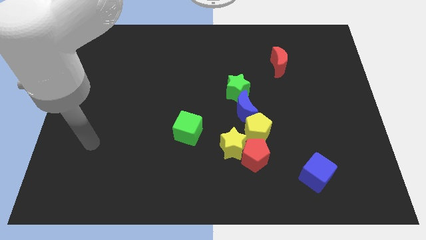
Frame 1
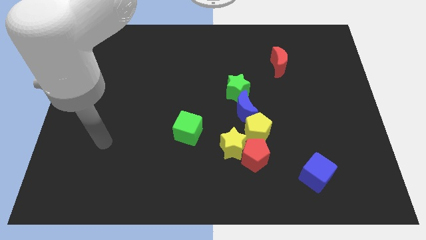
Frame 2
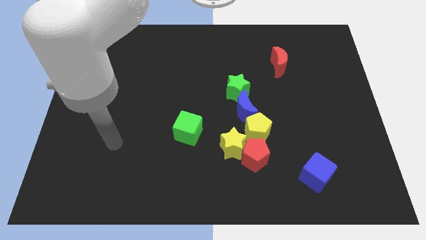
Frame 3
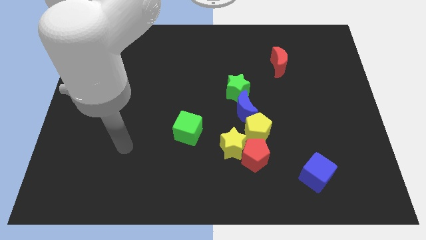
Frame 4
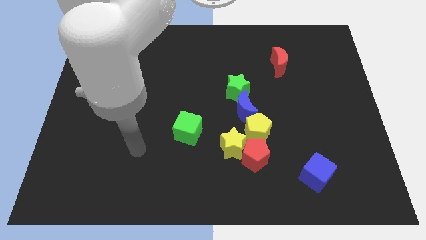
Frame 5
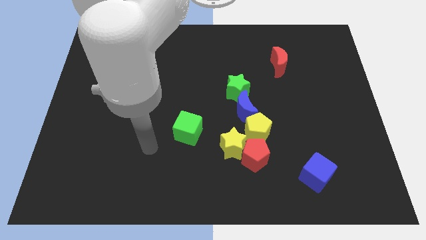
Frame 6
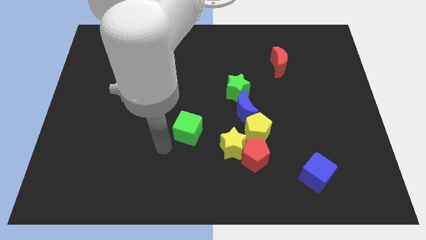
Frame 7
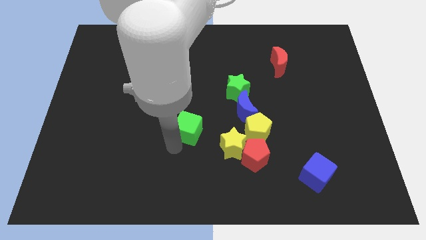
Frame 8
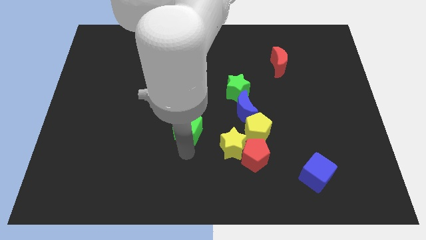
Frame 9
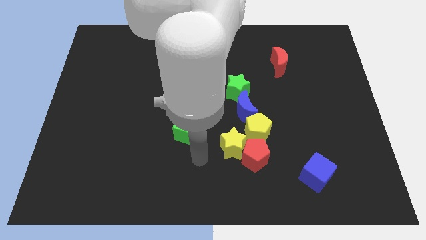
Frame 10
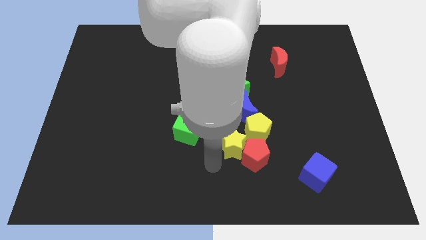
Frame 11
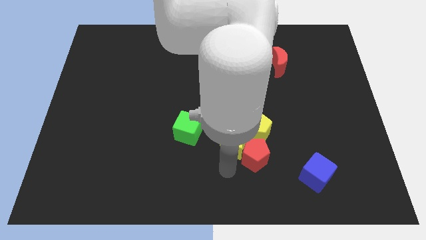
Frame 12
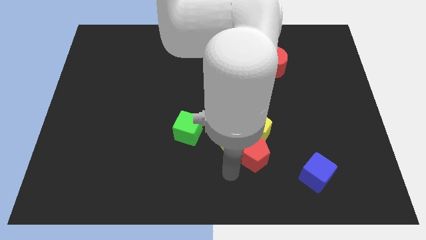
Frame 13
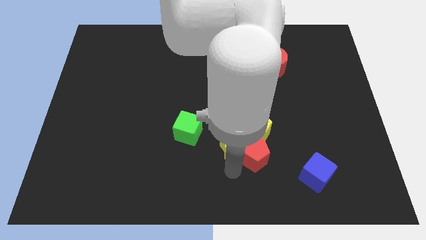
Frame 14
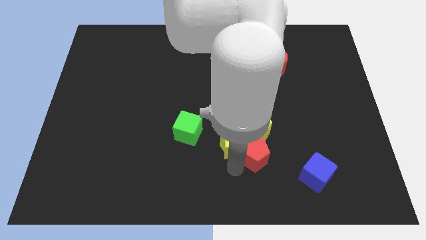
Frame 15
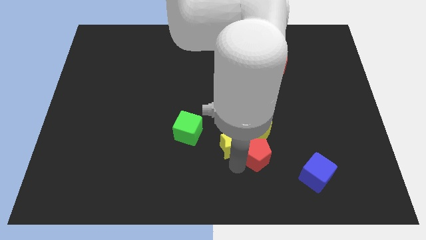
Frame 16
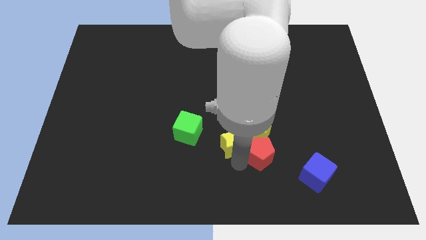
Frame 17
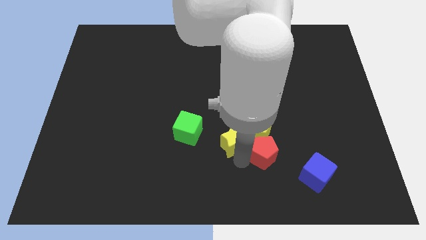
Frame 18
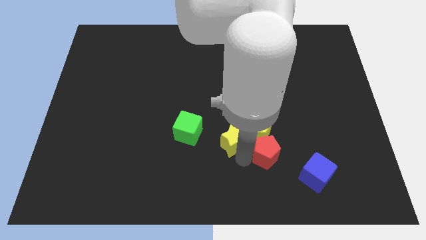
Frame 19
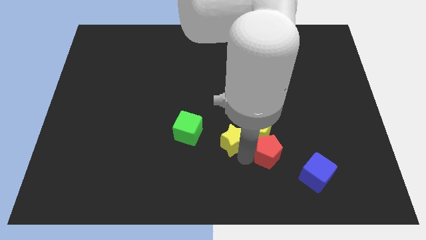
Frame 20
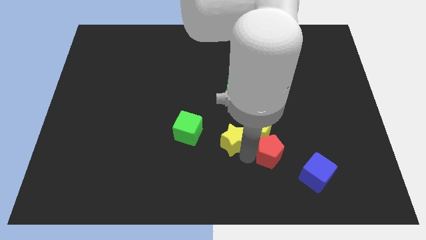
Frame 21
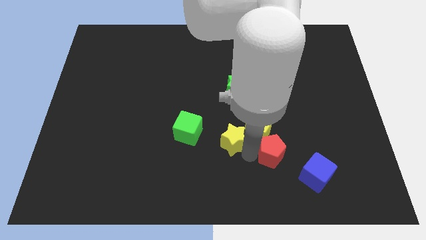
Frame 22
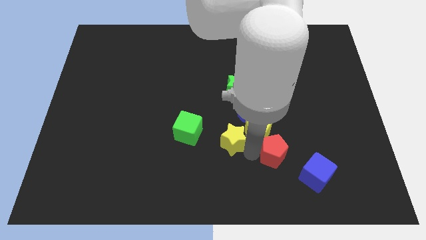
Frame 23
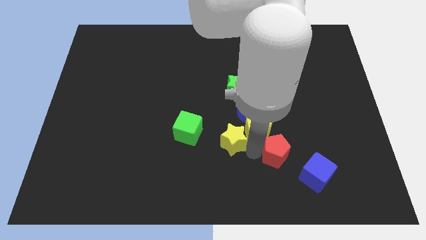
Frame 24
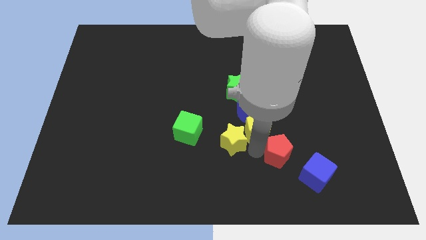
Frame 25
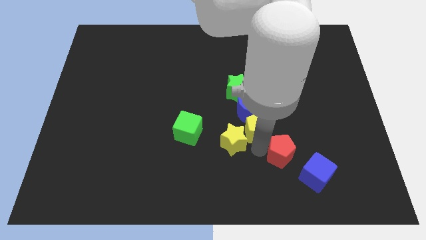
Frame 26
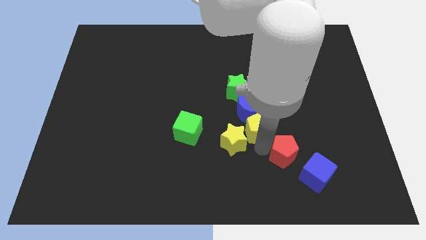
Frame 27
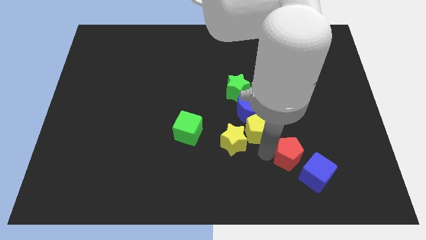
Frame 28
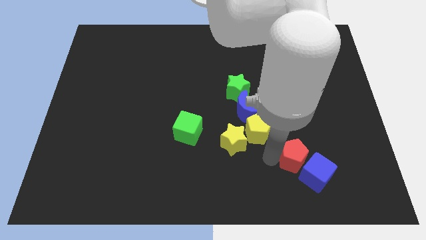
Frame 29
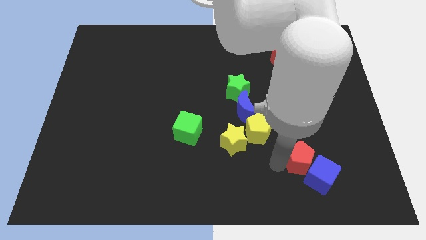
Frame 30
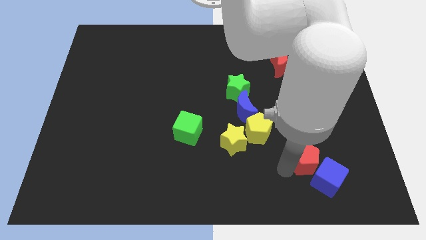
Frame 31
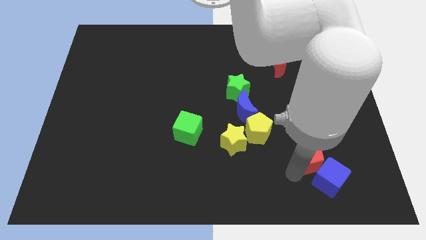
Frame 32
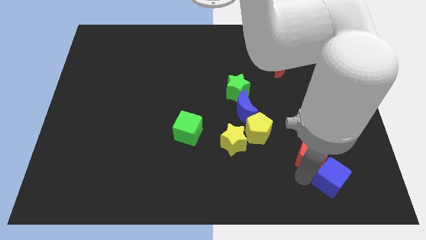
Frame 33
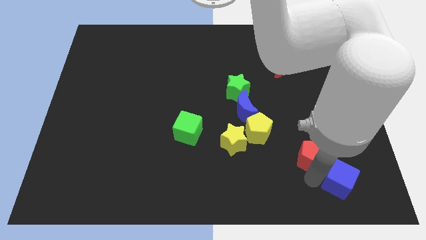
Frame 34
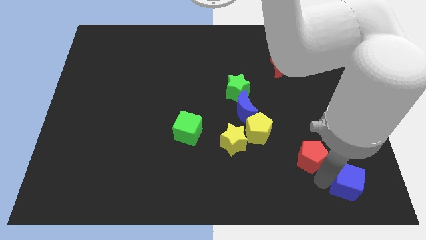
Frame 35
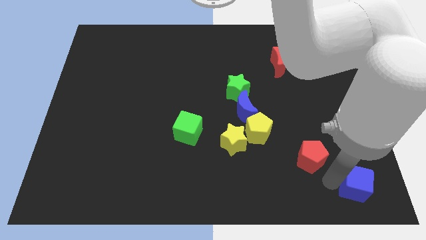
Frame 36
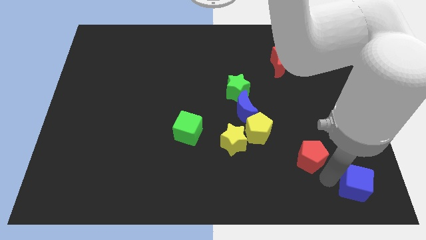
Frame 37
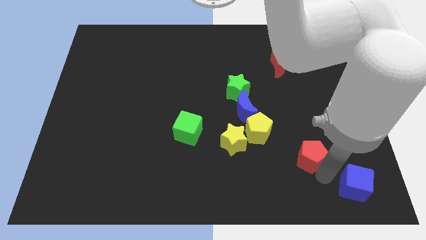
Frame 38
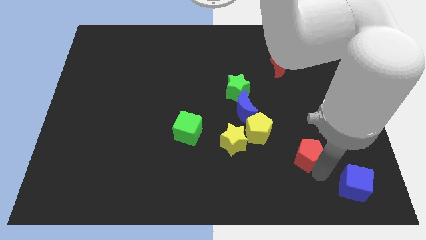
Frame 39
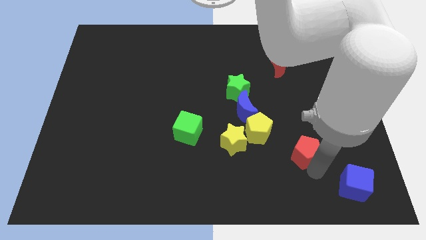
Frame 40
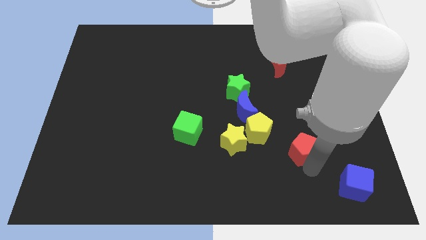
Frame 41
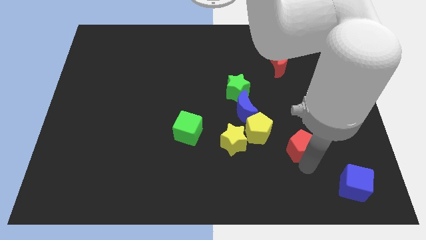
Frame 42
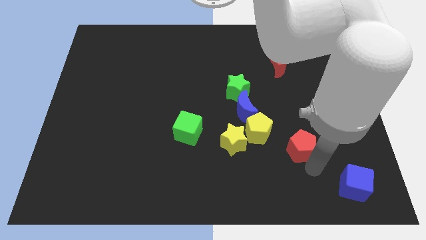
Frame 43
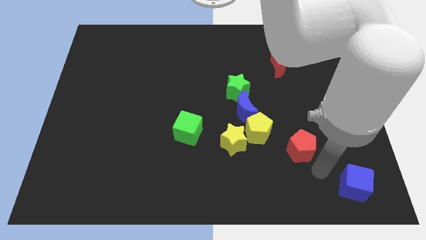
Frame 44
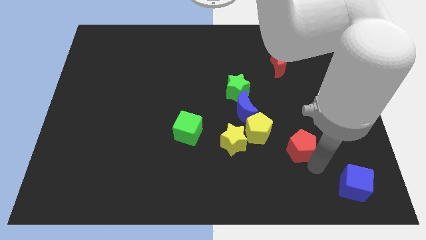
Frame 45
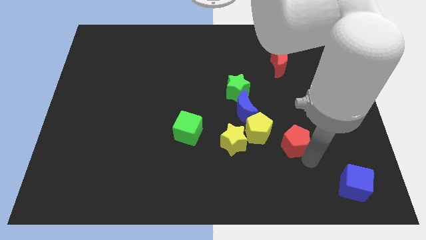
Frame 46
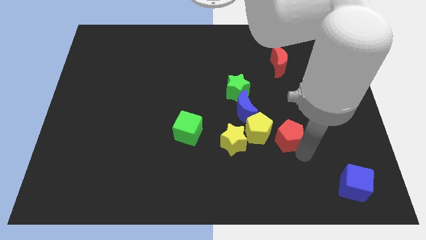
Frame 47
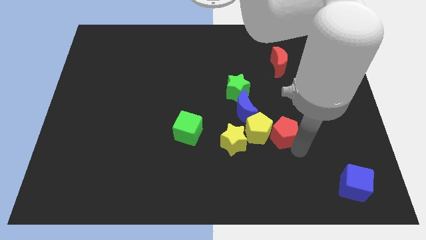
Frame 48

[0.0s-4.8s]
push the red pentagon to the top right of the yellow pentagon

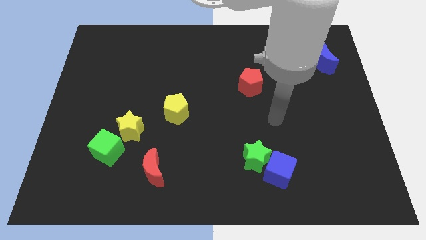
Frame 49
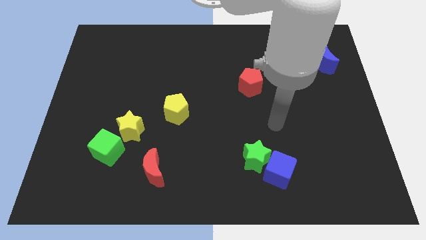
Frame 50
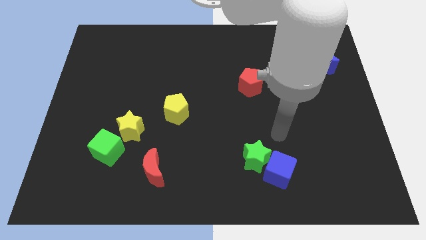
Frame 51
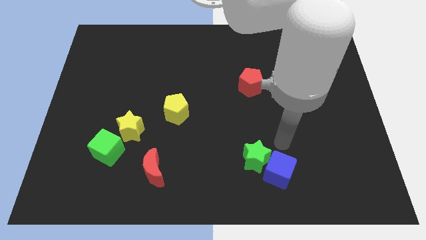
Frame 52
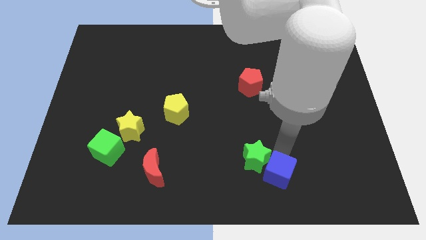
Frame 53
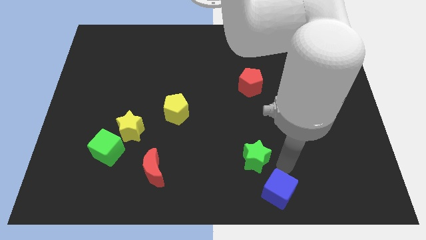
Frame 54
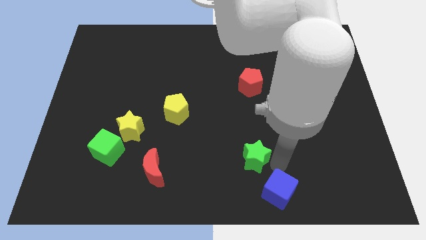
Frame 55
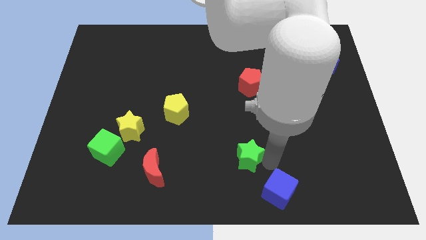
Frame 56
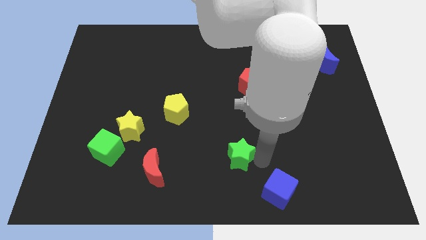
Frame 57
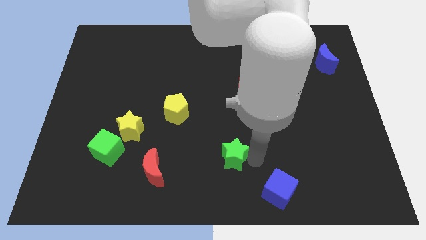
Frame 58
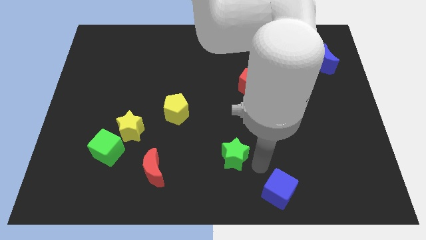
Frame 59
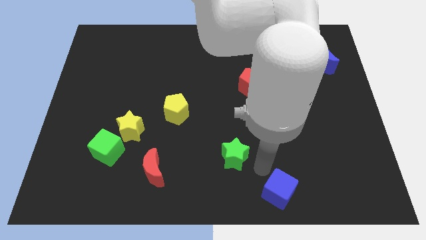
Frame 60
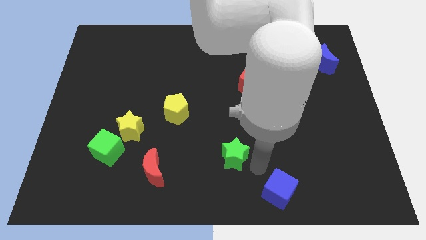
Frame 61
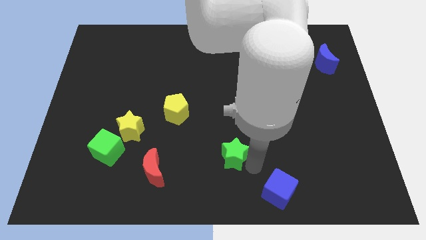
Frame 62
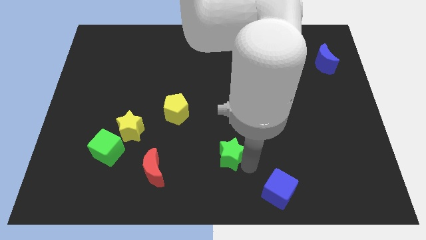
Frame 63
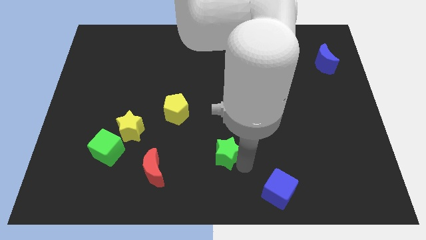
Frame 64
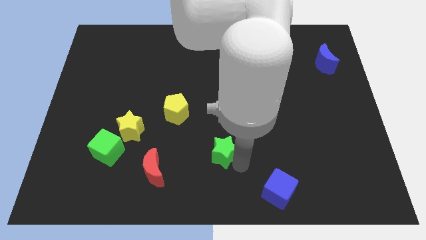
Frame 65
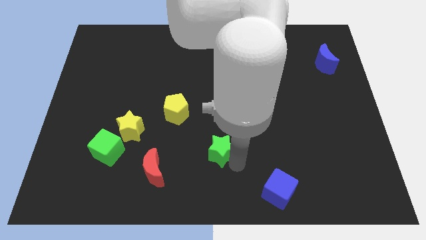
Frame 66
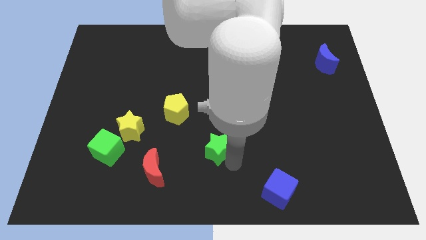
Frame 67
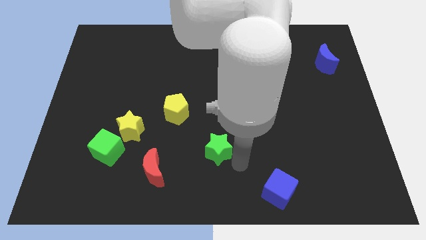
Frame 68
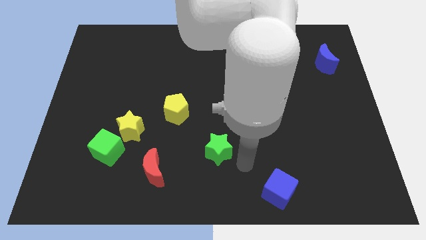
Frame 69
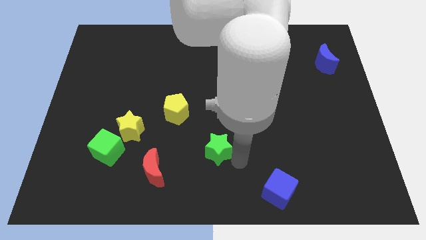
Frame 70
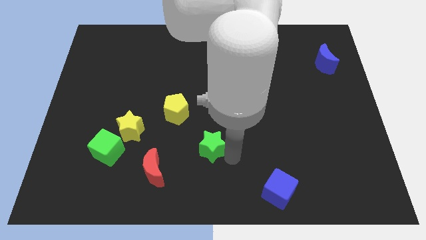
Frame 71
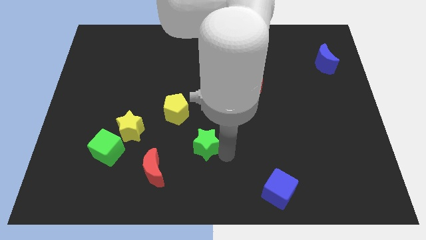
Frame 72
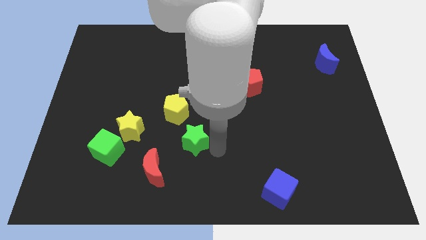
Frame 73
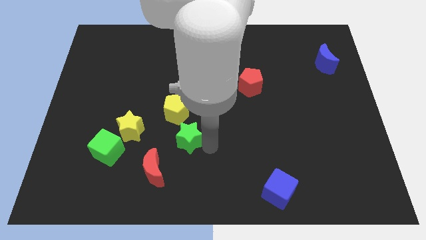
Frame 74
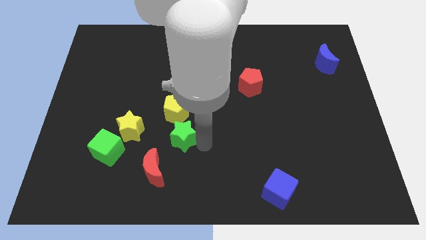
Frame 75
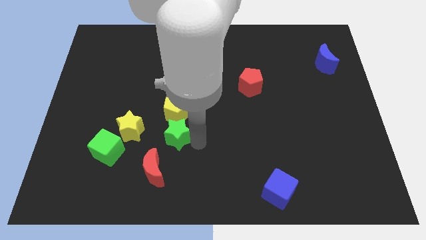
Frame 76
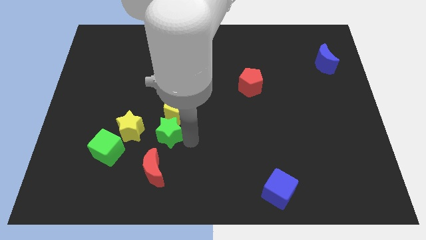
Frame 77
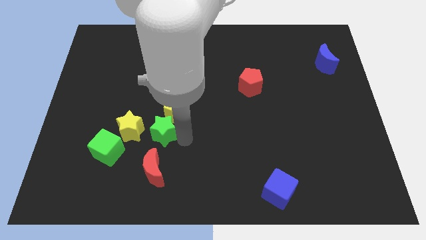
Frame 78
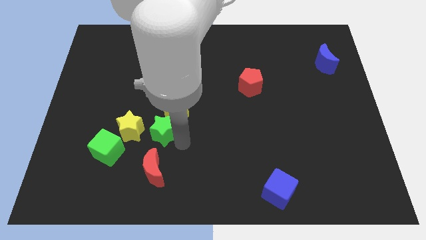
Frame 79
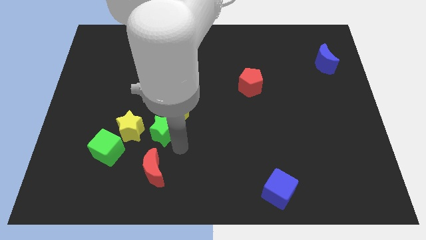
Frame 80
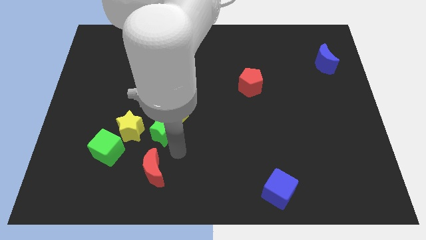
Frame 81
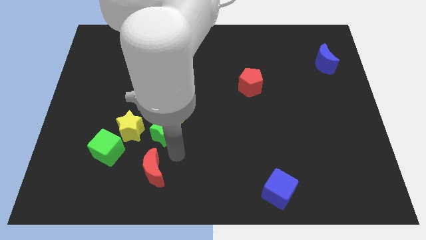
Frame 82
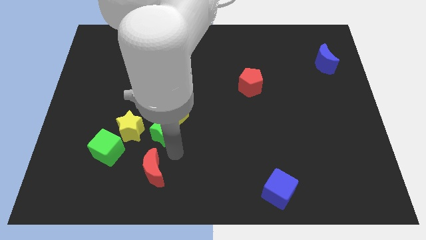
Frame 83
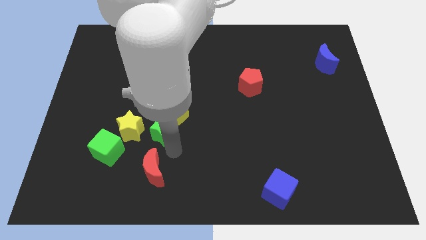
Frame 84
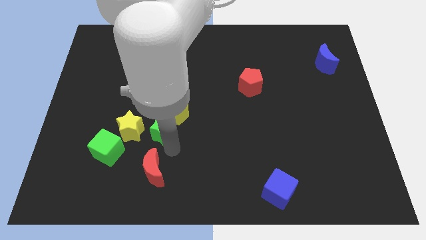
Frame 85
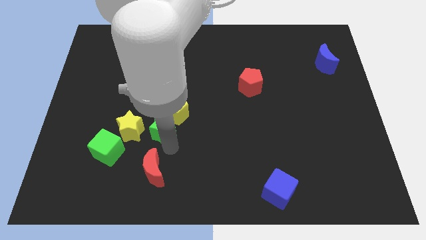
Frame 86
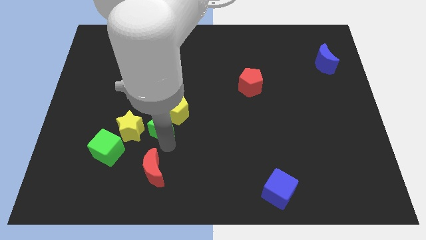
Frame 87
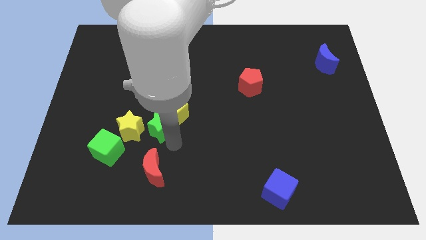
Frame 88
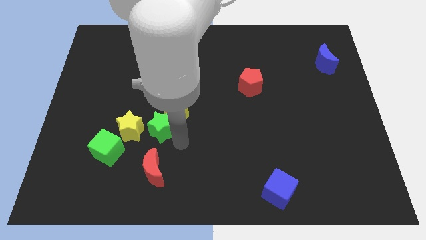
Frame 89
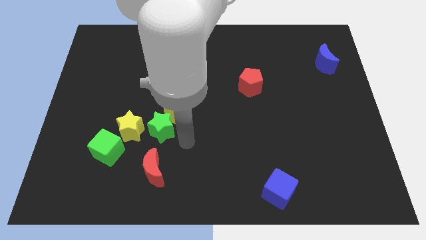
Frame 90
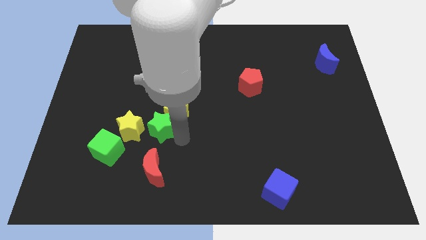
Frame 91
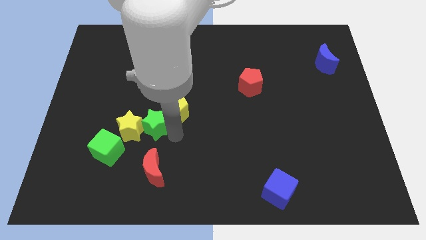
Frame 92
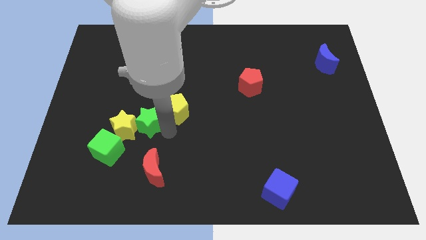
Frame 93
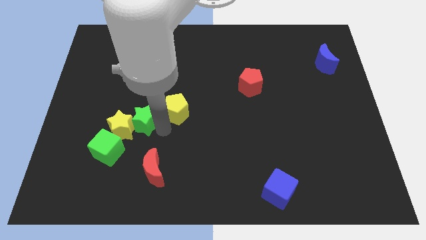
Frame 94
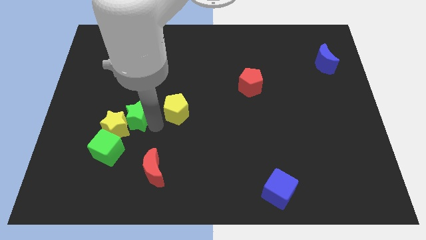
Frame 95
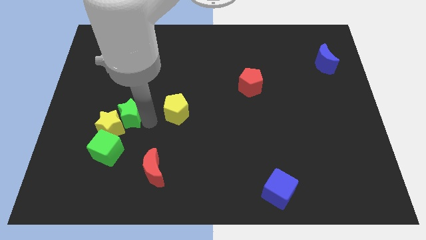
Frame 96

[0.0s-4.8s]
push the green star above the green cube
